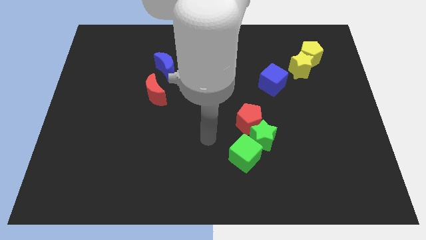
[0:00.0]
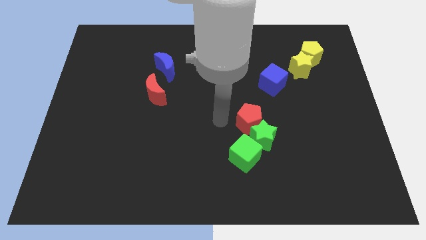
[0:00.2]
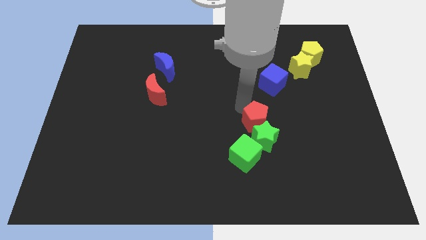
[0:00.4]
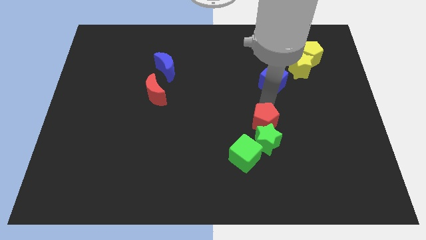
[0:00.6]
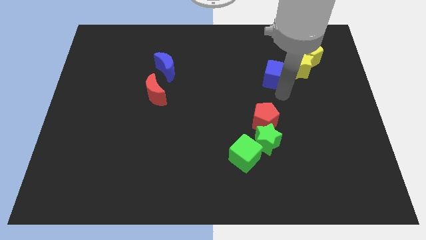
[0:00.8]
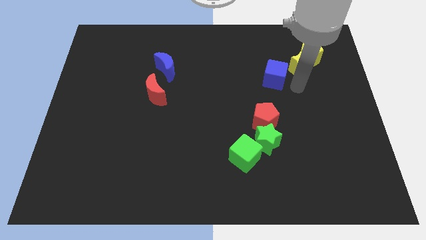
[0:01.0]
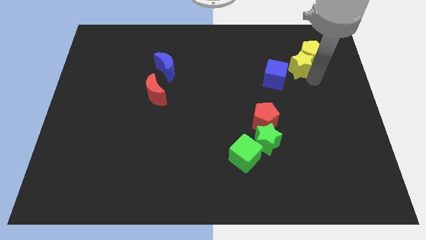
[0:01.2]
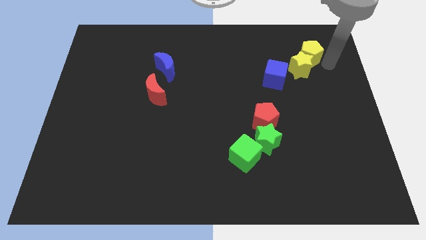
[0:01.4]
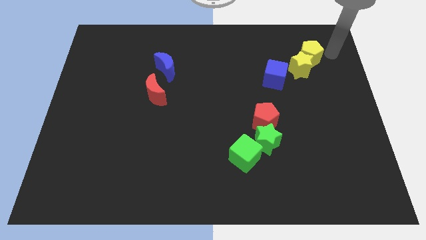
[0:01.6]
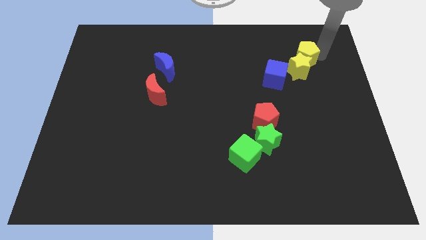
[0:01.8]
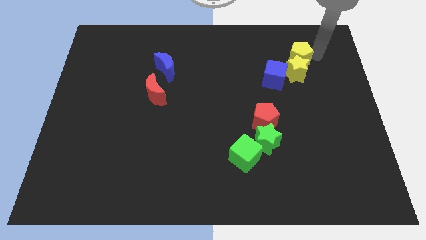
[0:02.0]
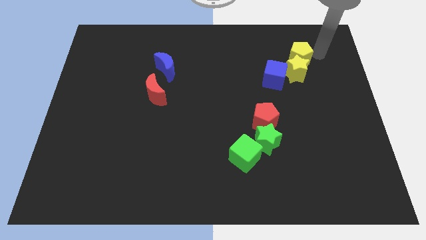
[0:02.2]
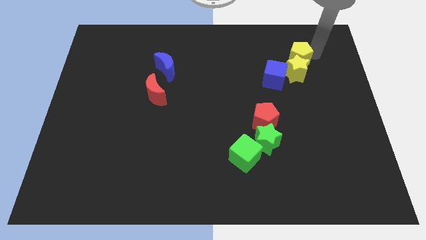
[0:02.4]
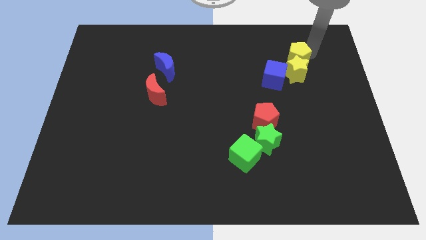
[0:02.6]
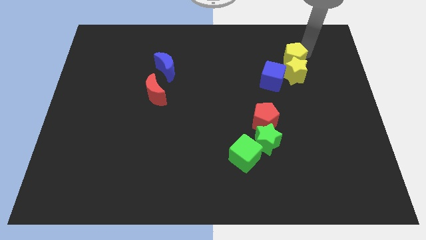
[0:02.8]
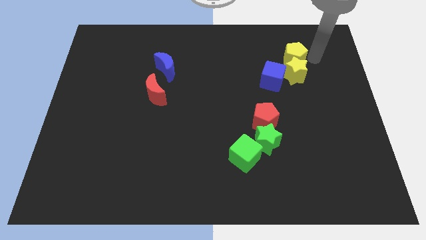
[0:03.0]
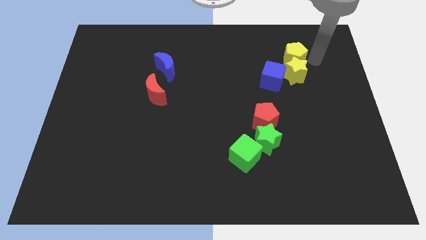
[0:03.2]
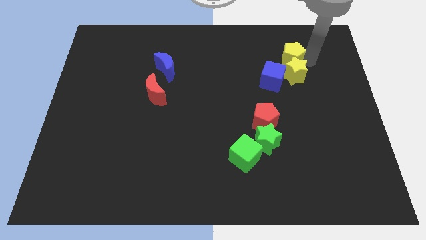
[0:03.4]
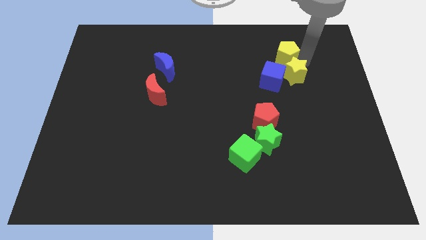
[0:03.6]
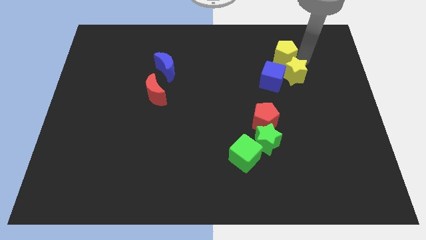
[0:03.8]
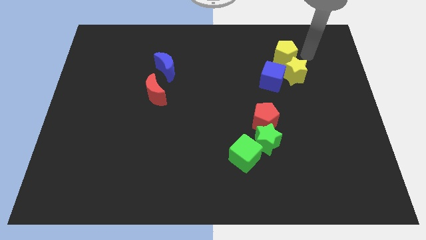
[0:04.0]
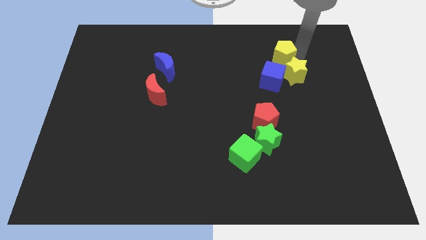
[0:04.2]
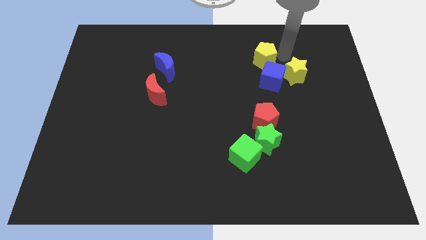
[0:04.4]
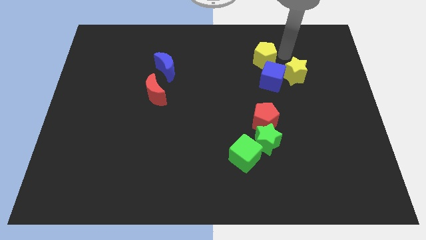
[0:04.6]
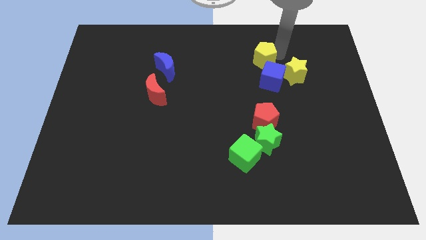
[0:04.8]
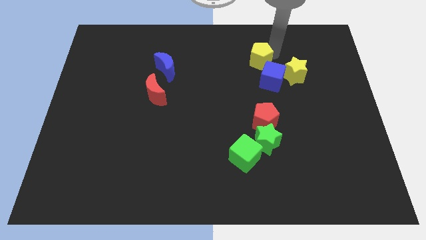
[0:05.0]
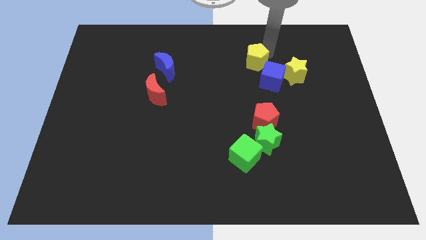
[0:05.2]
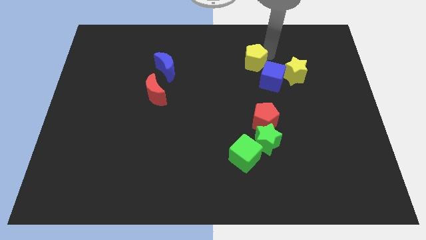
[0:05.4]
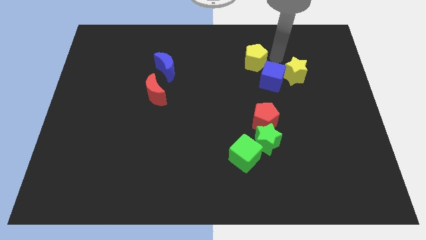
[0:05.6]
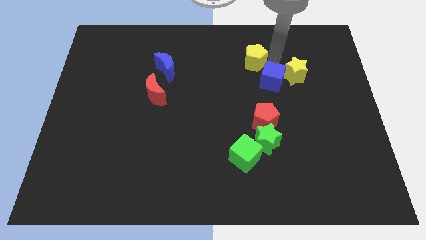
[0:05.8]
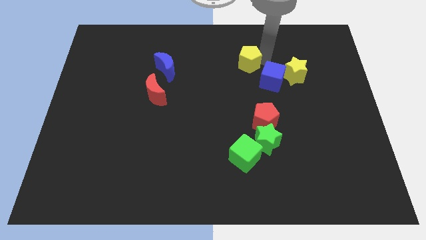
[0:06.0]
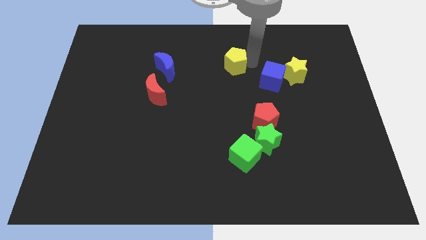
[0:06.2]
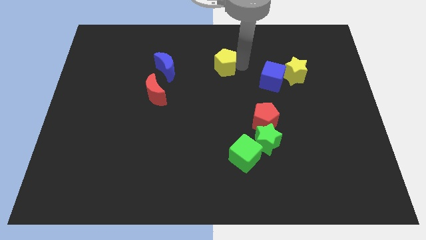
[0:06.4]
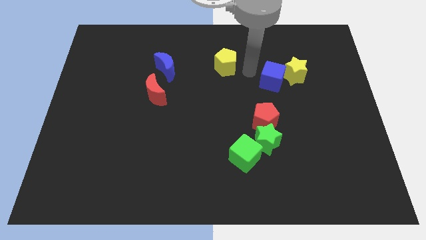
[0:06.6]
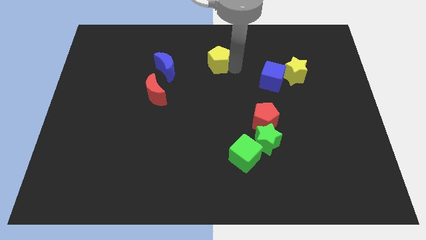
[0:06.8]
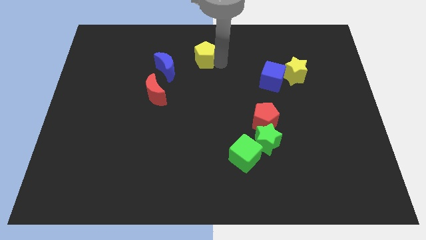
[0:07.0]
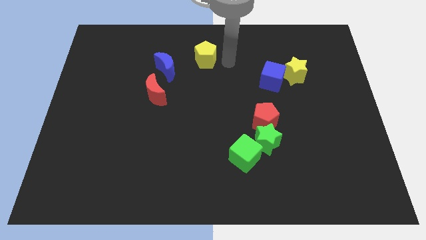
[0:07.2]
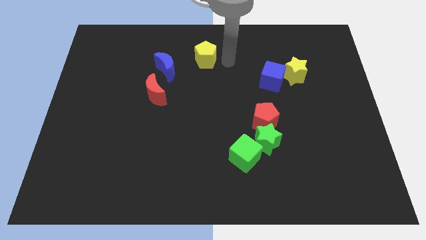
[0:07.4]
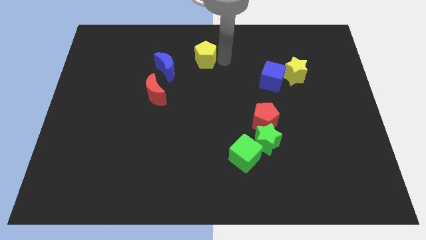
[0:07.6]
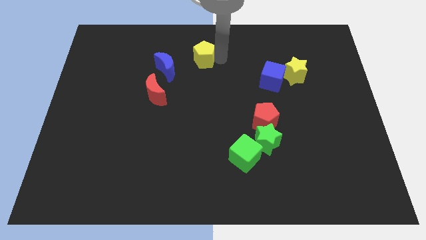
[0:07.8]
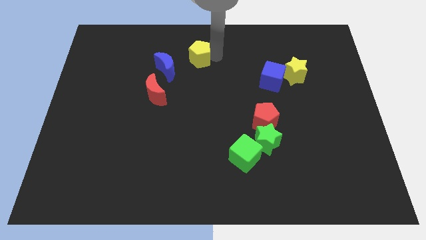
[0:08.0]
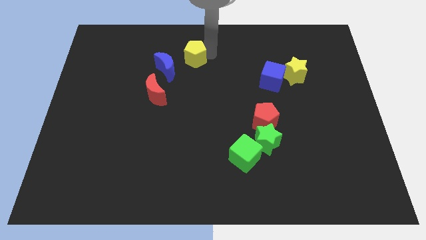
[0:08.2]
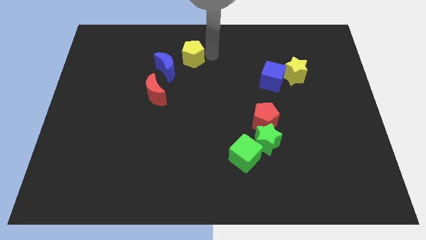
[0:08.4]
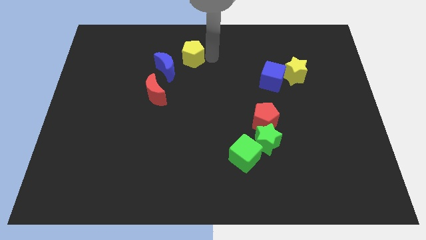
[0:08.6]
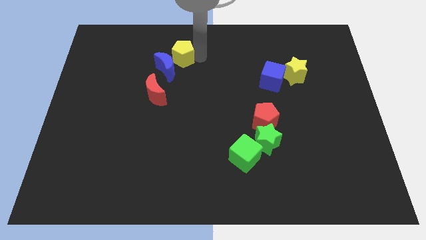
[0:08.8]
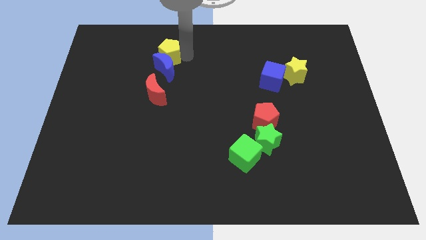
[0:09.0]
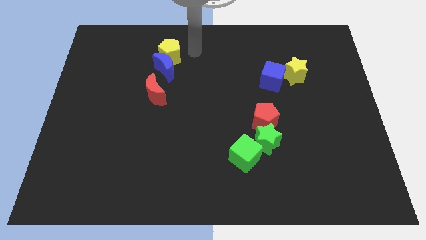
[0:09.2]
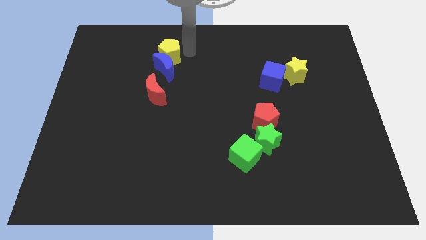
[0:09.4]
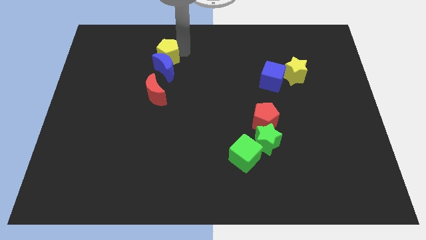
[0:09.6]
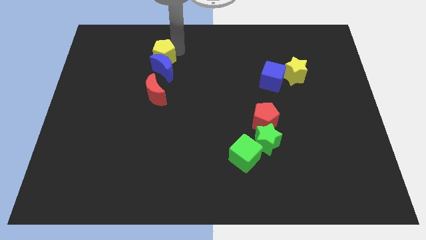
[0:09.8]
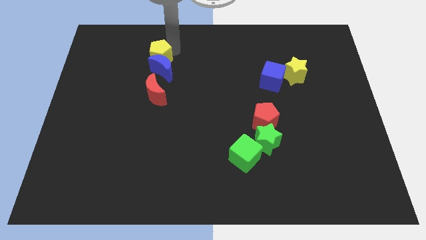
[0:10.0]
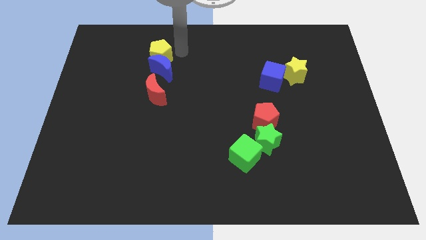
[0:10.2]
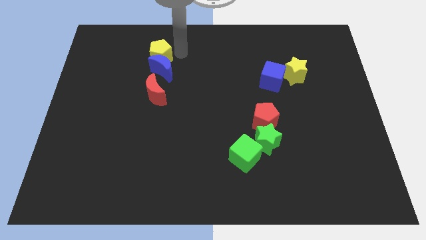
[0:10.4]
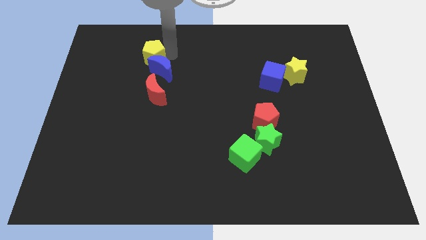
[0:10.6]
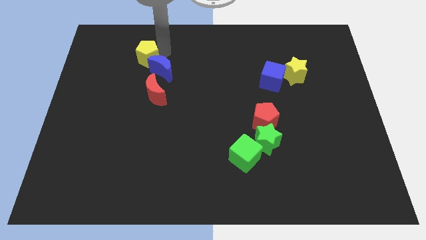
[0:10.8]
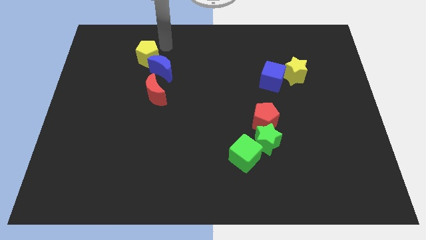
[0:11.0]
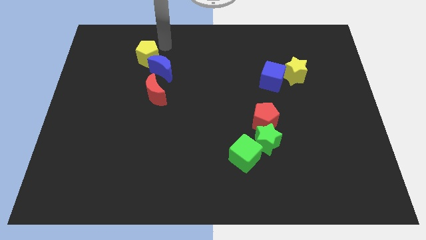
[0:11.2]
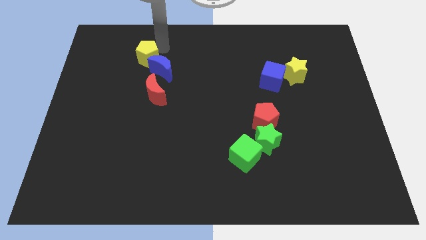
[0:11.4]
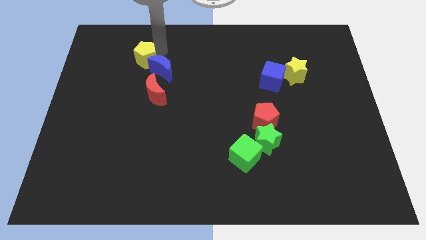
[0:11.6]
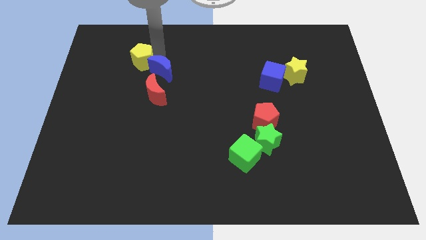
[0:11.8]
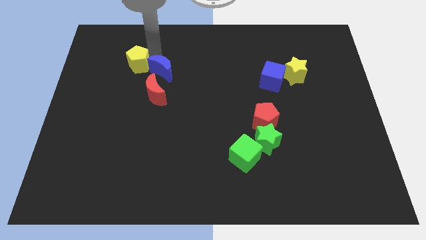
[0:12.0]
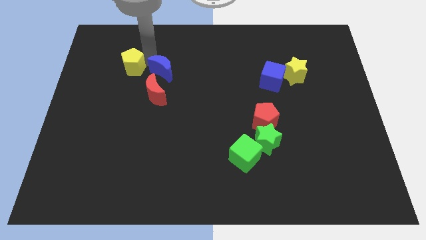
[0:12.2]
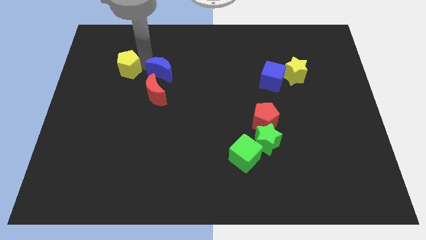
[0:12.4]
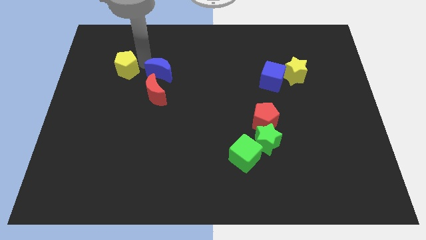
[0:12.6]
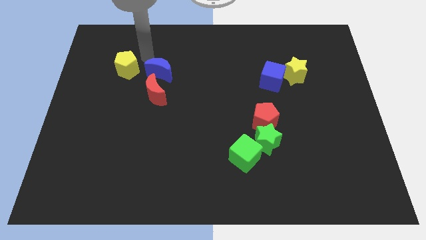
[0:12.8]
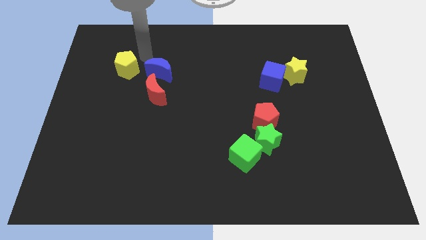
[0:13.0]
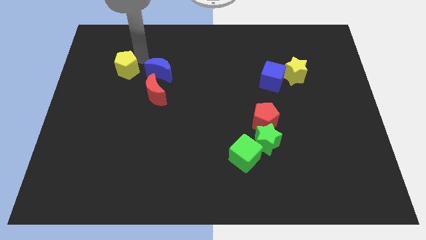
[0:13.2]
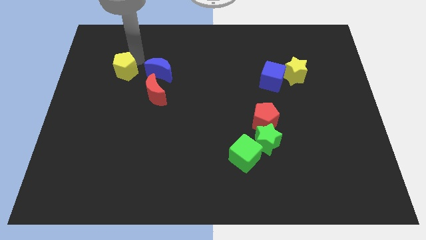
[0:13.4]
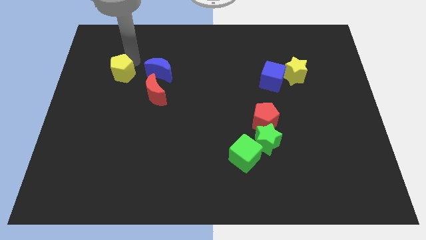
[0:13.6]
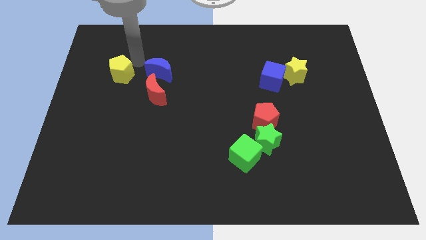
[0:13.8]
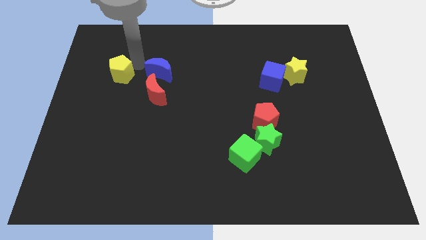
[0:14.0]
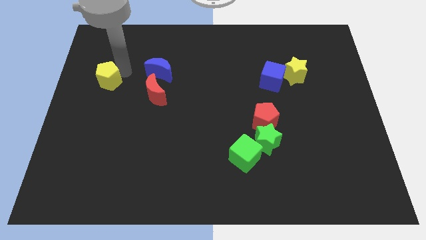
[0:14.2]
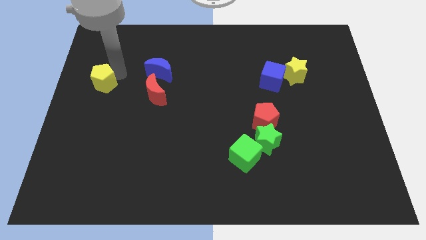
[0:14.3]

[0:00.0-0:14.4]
put the yellow pentagon to the center left
